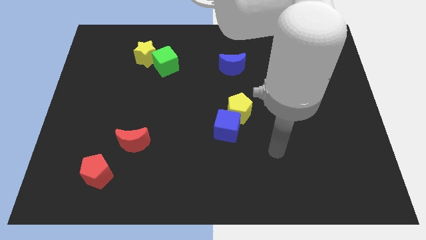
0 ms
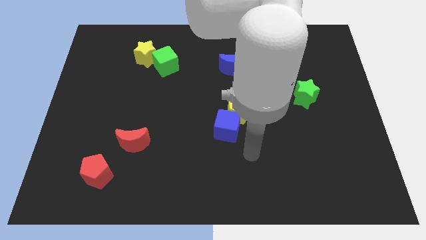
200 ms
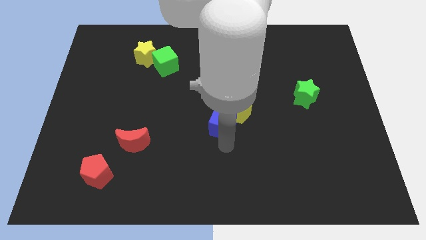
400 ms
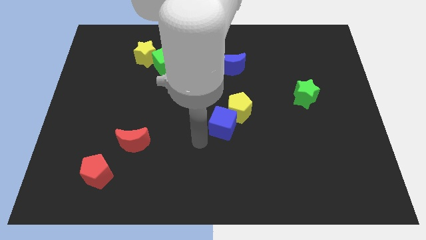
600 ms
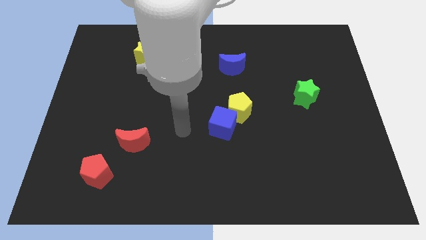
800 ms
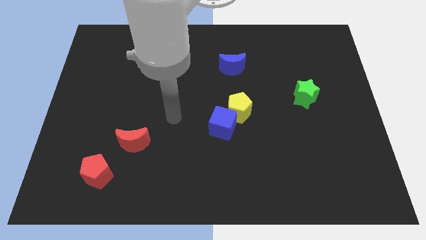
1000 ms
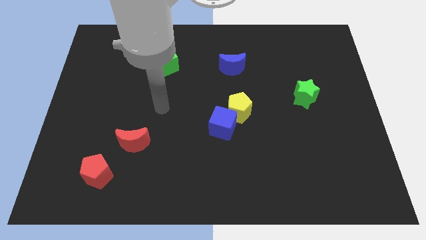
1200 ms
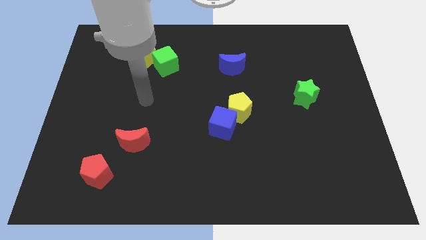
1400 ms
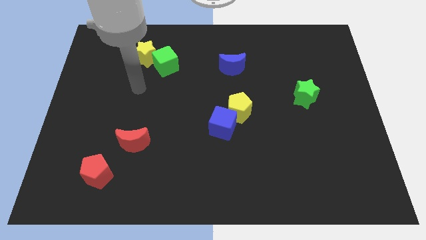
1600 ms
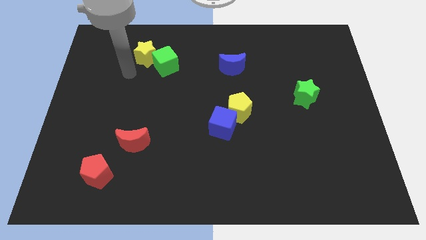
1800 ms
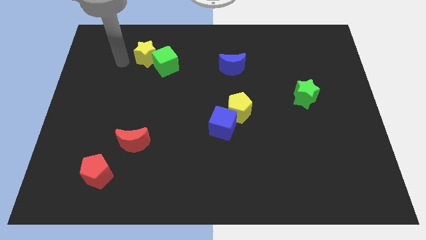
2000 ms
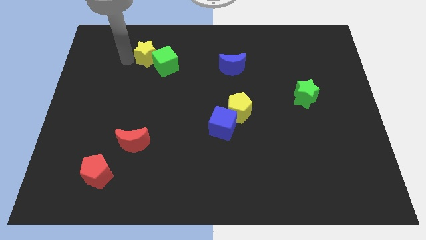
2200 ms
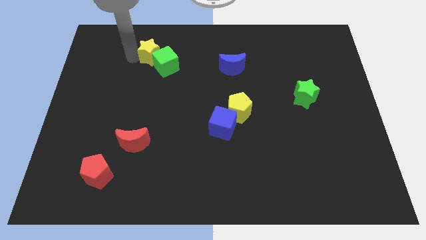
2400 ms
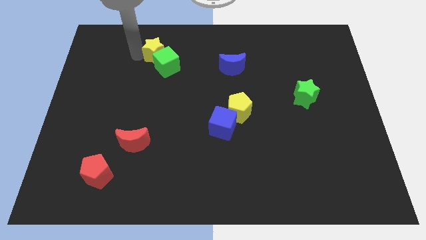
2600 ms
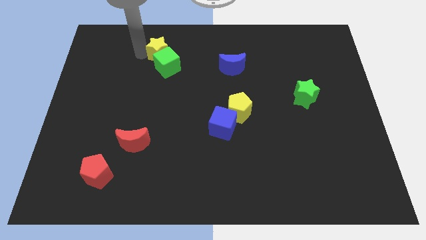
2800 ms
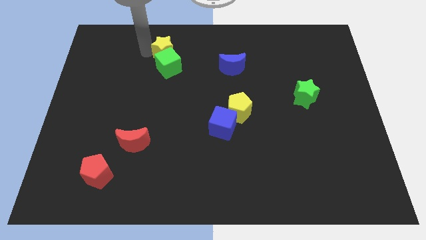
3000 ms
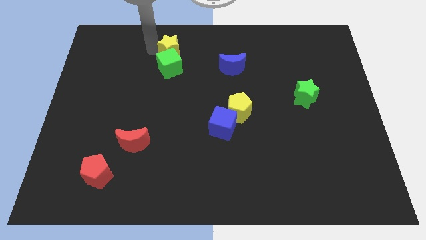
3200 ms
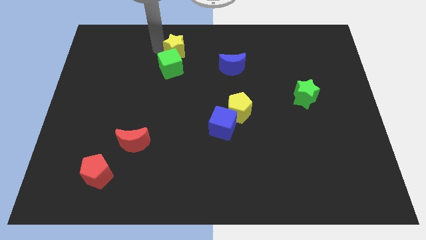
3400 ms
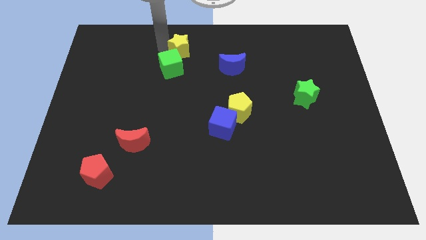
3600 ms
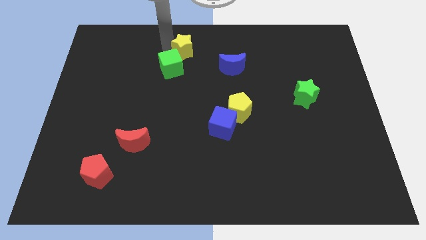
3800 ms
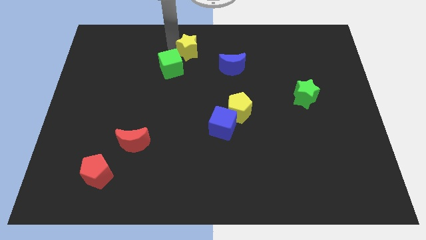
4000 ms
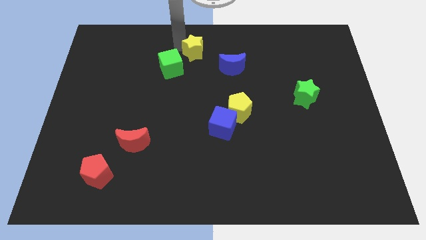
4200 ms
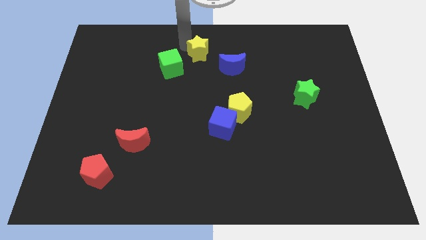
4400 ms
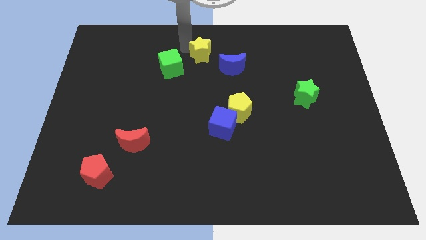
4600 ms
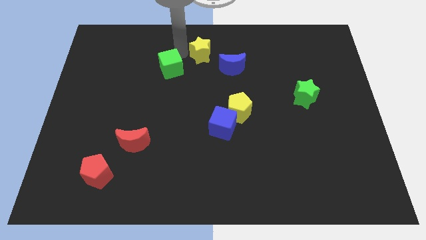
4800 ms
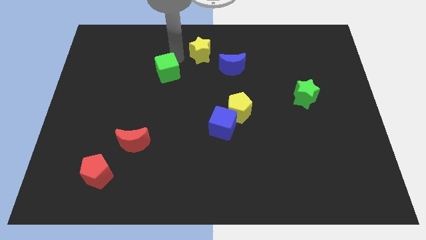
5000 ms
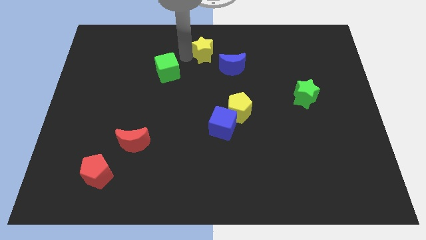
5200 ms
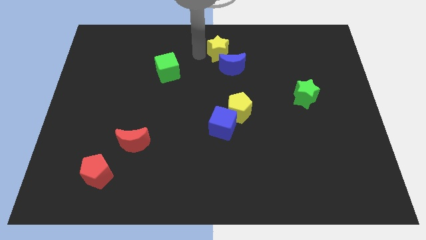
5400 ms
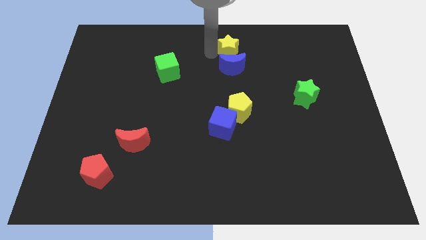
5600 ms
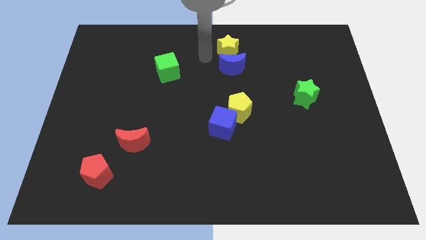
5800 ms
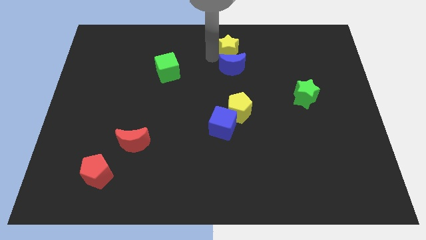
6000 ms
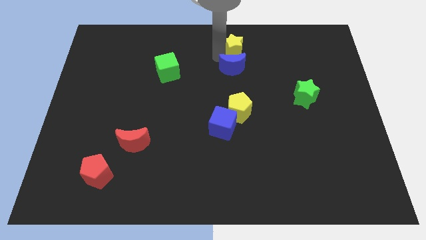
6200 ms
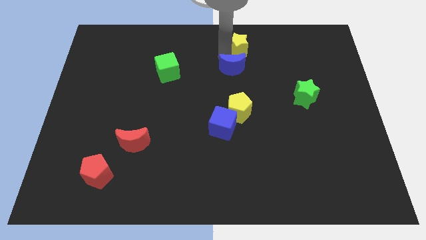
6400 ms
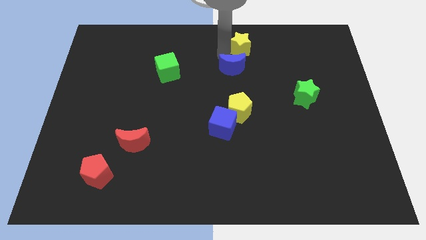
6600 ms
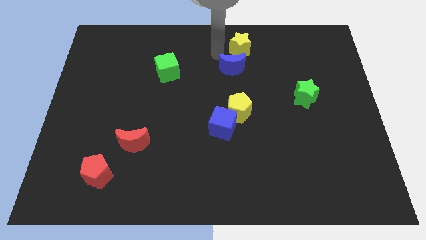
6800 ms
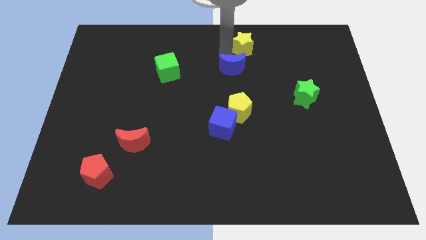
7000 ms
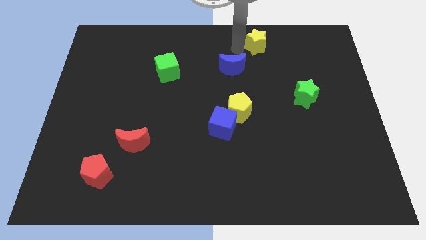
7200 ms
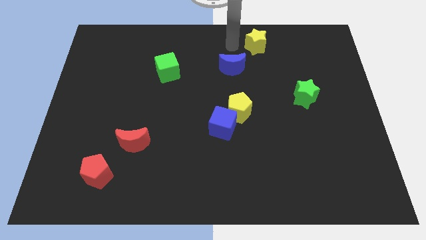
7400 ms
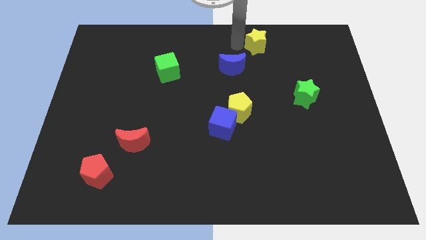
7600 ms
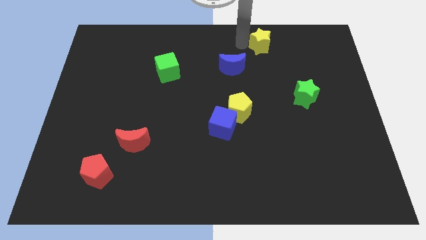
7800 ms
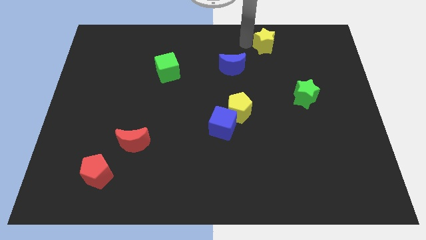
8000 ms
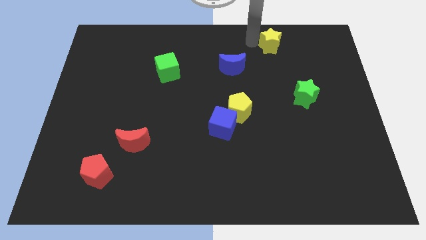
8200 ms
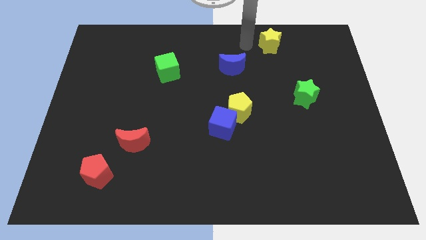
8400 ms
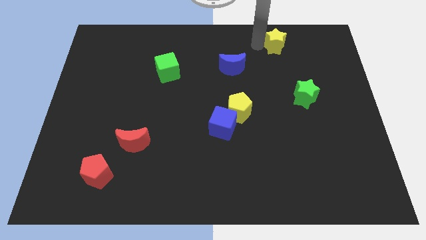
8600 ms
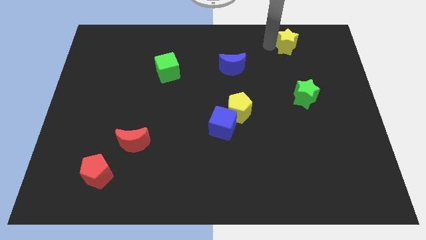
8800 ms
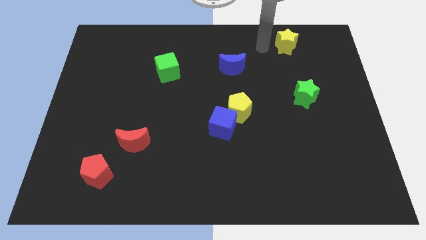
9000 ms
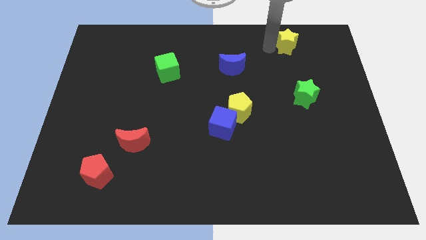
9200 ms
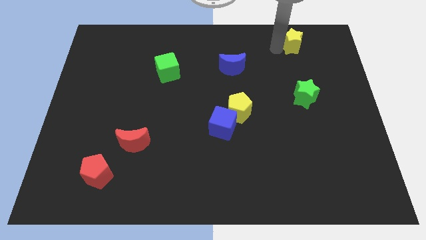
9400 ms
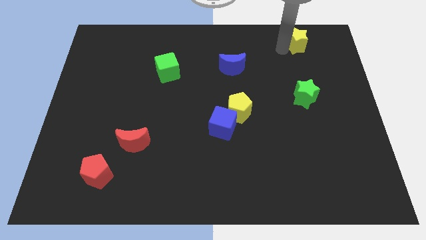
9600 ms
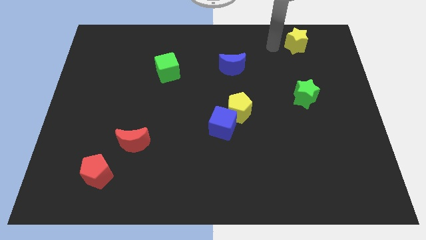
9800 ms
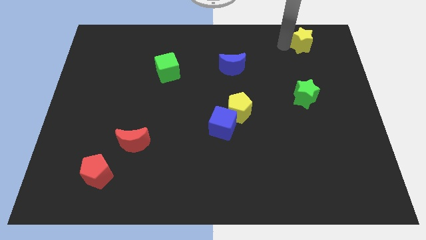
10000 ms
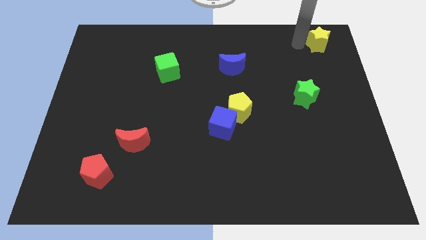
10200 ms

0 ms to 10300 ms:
put the yellow star to the top right corner

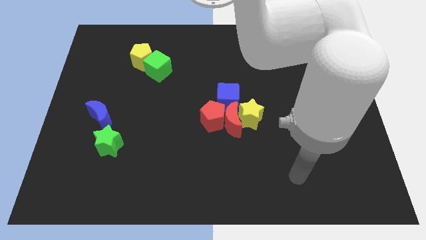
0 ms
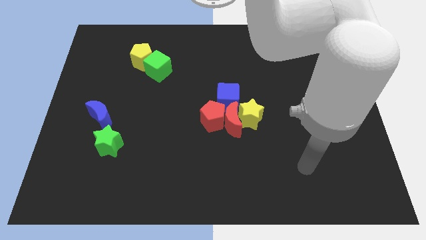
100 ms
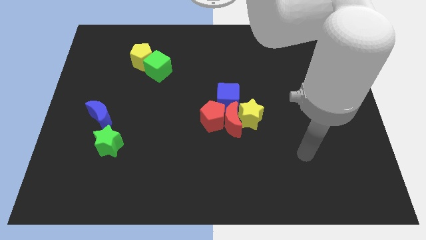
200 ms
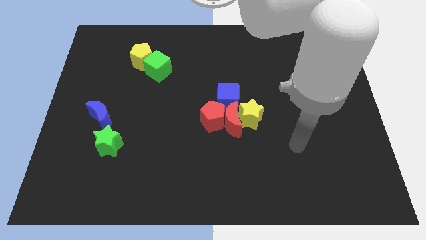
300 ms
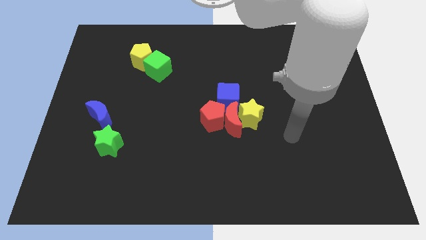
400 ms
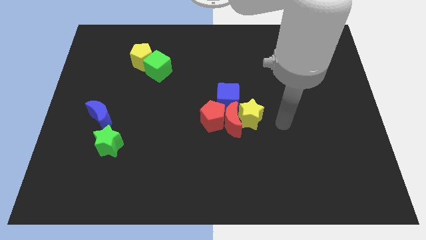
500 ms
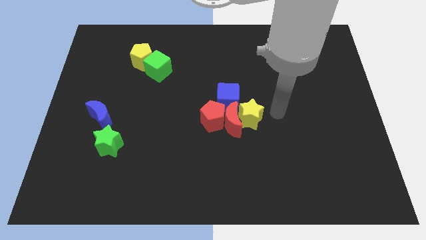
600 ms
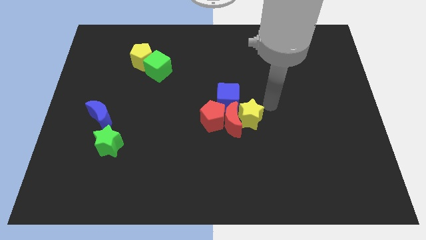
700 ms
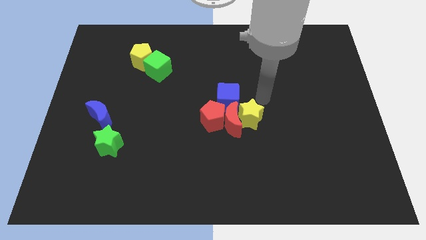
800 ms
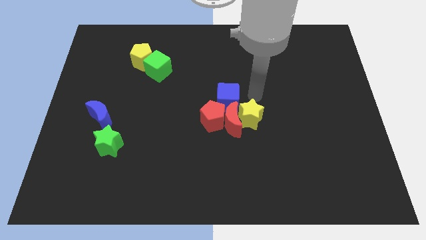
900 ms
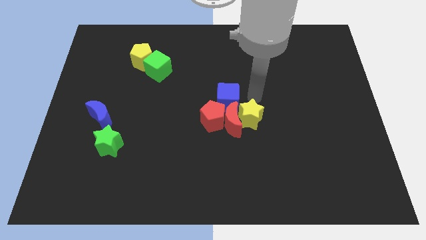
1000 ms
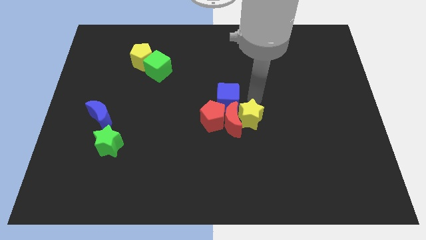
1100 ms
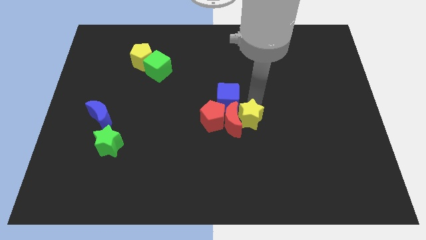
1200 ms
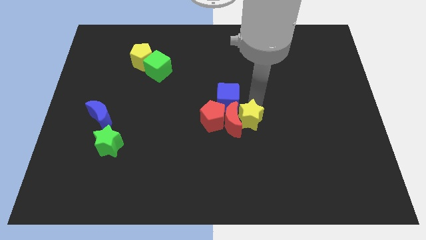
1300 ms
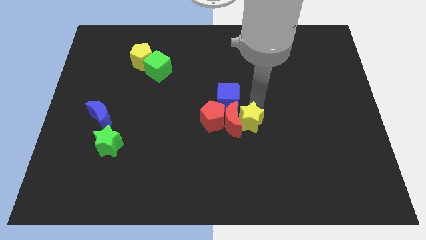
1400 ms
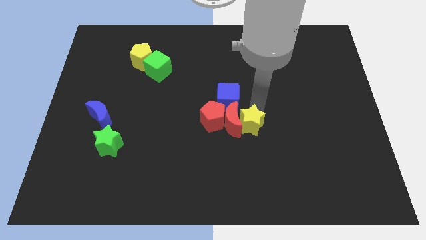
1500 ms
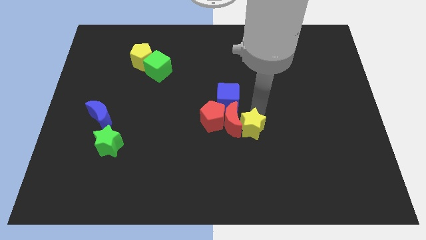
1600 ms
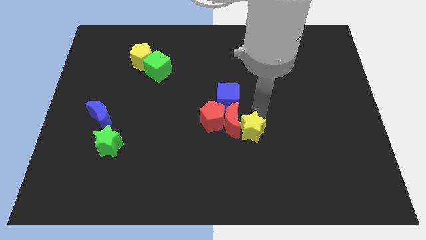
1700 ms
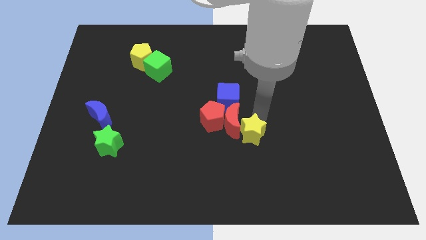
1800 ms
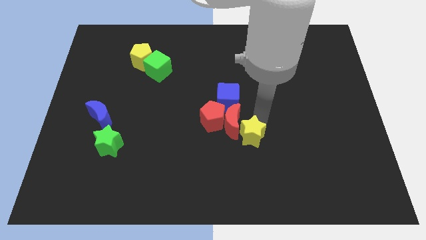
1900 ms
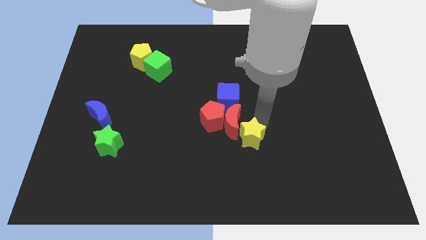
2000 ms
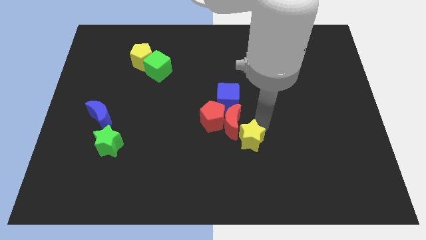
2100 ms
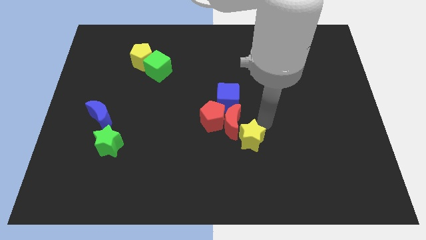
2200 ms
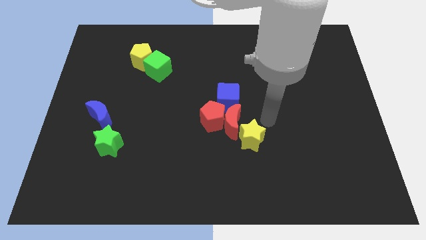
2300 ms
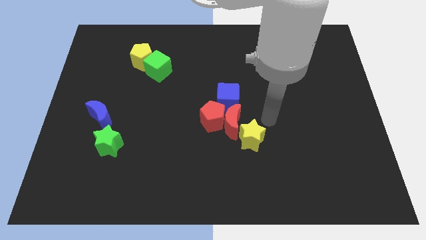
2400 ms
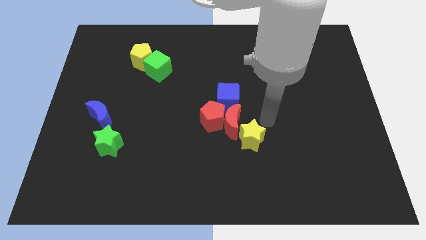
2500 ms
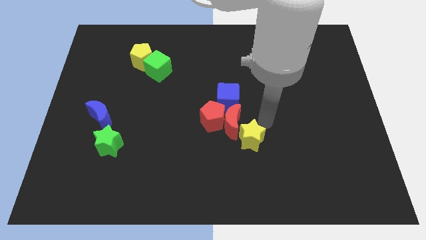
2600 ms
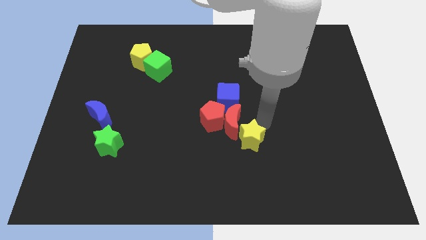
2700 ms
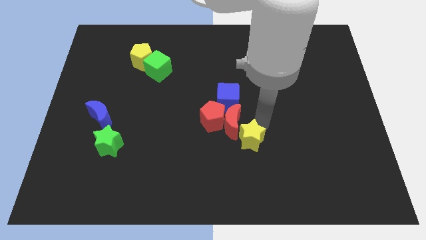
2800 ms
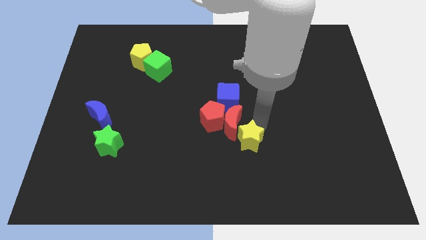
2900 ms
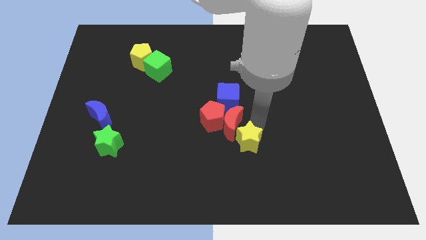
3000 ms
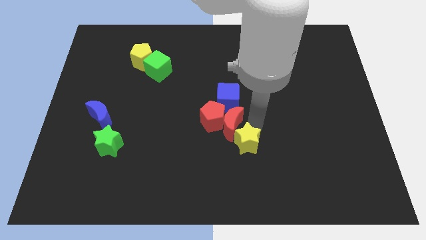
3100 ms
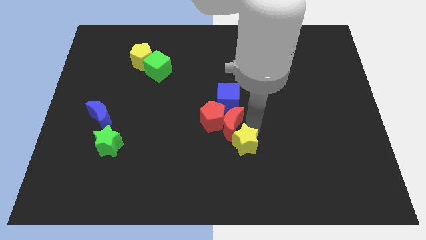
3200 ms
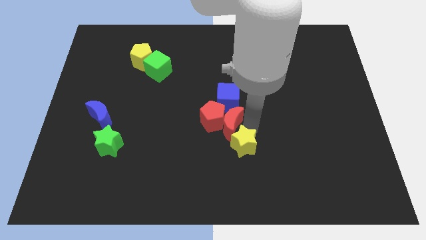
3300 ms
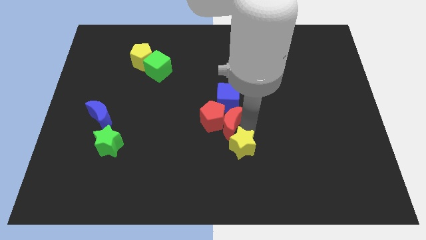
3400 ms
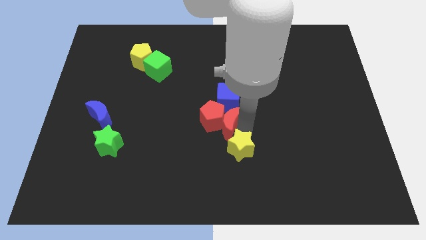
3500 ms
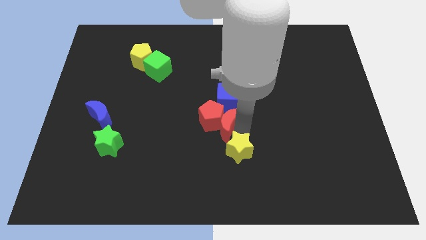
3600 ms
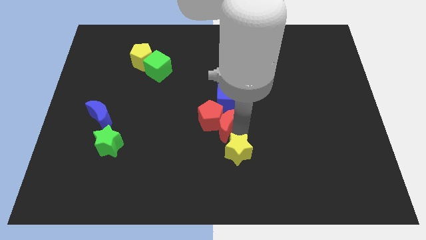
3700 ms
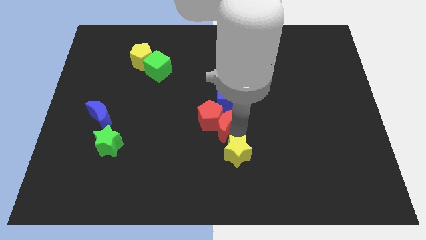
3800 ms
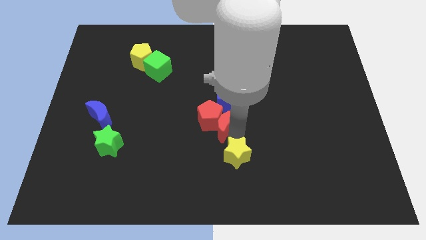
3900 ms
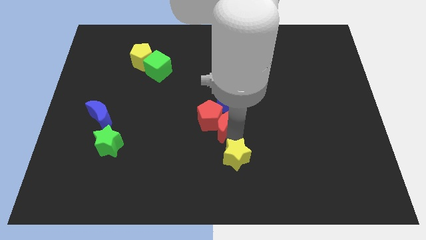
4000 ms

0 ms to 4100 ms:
push the yellow star to the bottom side
